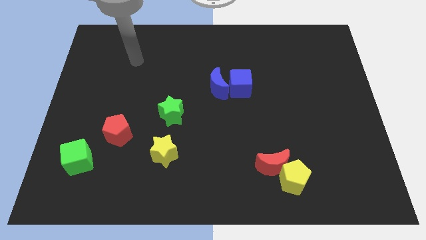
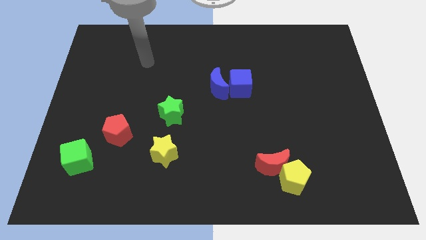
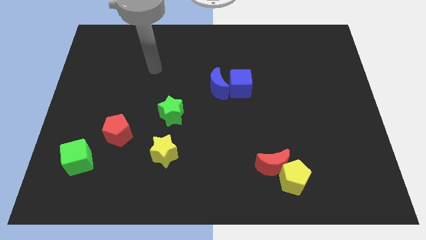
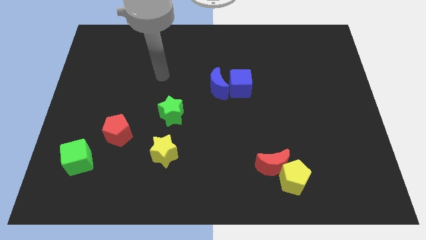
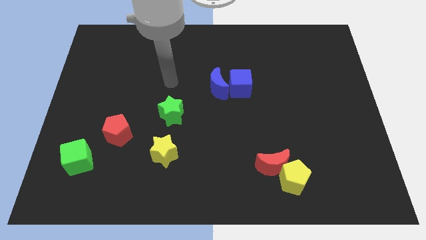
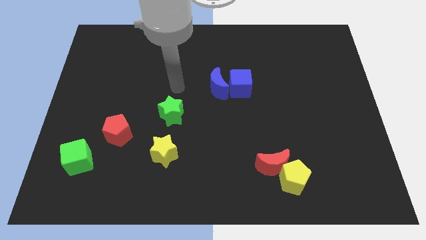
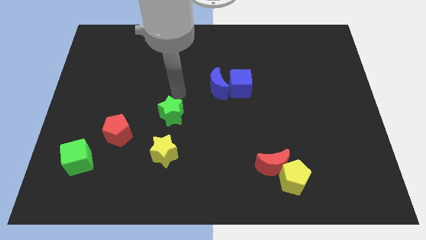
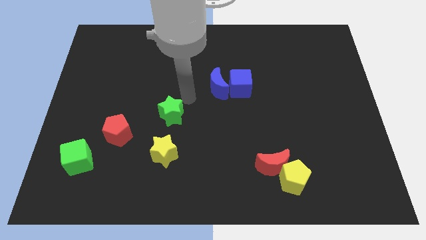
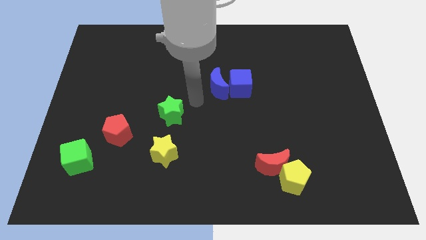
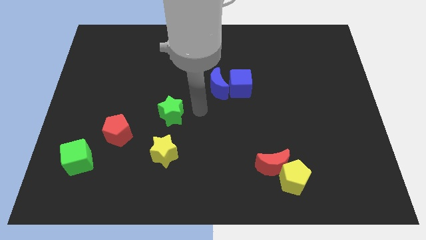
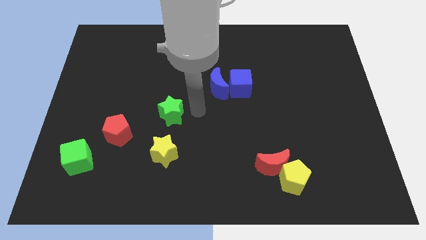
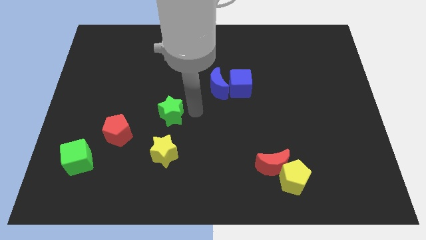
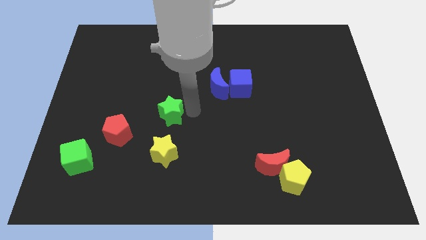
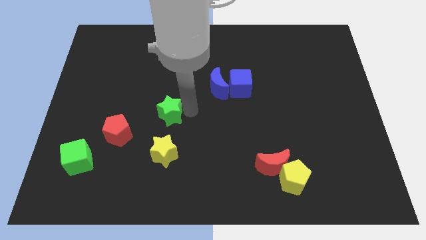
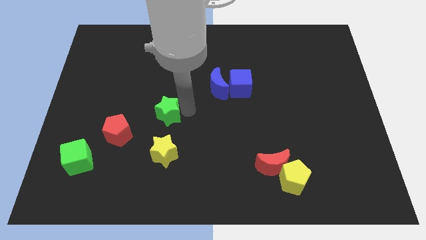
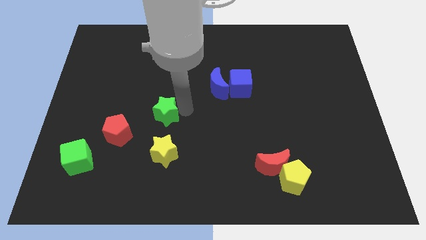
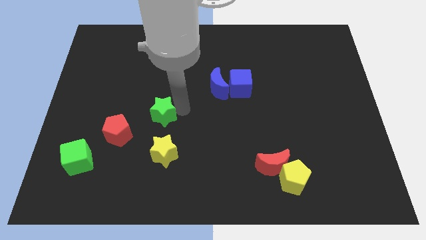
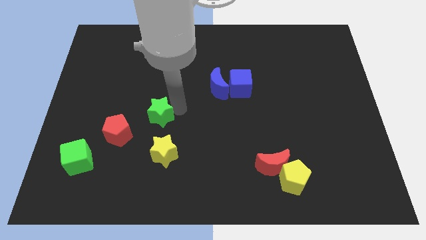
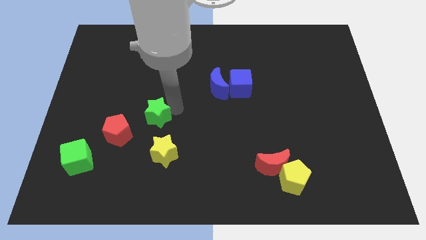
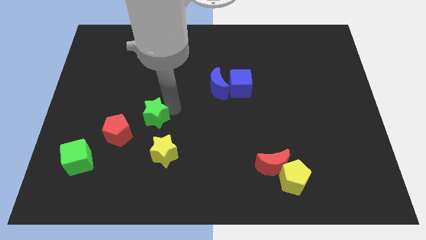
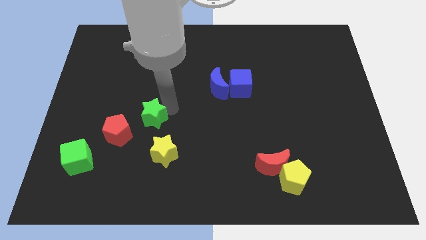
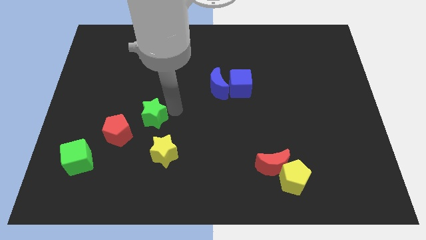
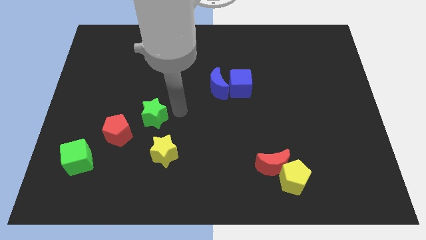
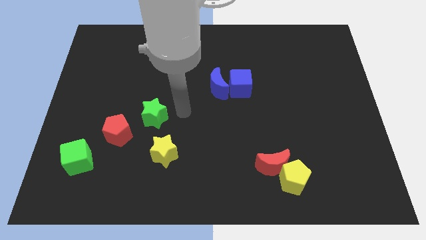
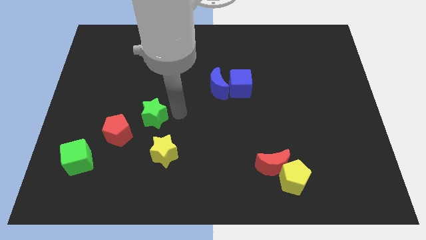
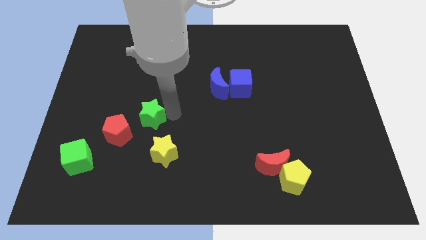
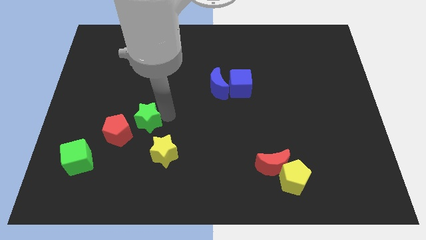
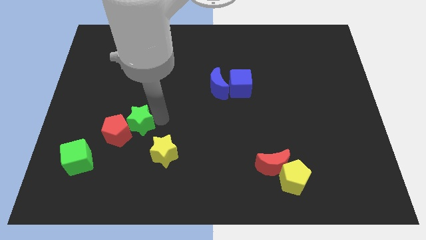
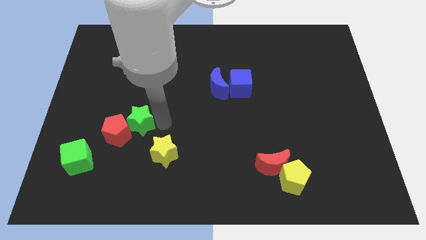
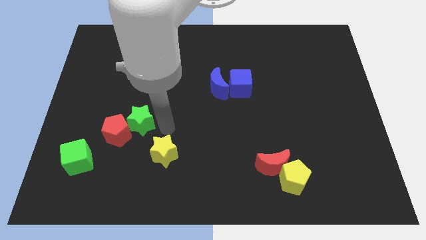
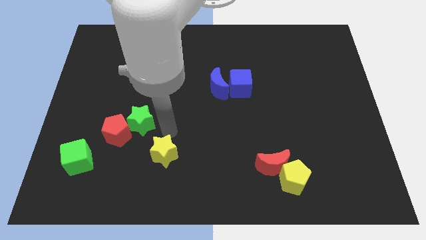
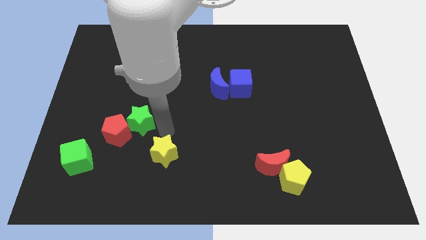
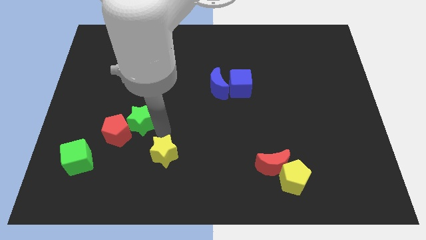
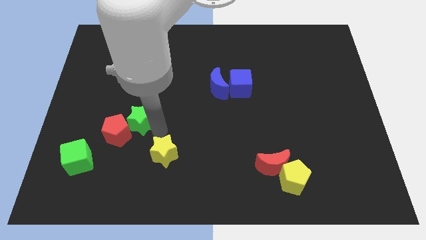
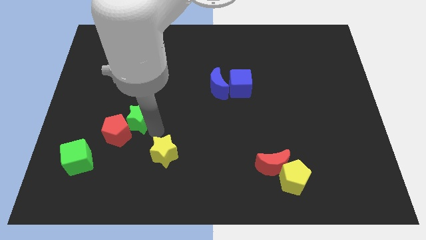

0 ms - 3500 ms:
slide the green star slightly to the left

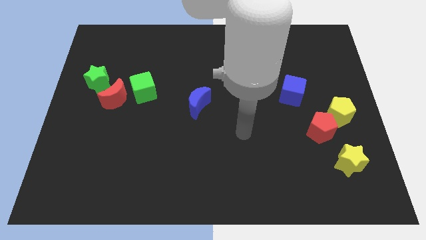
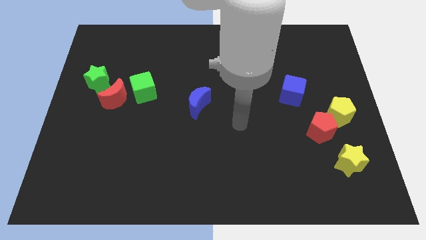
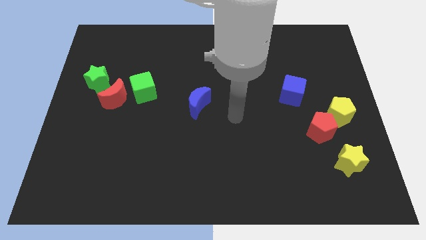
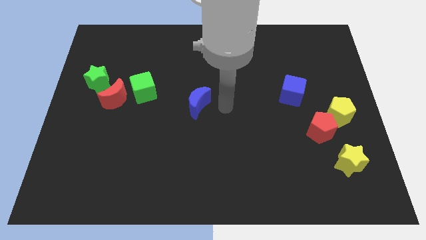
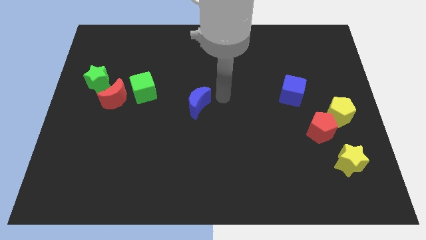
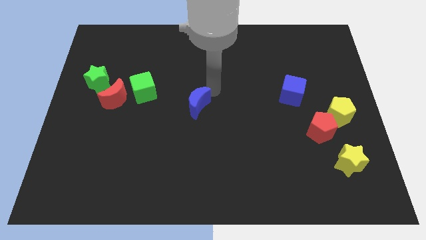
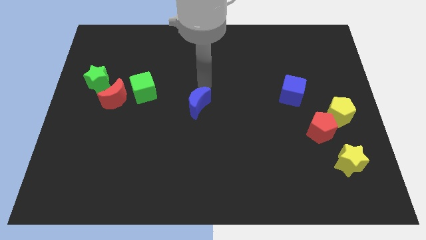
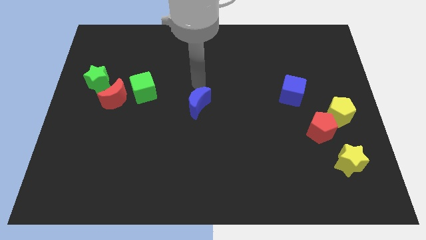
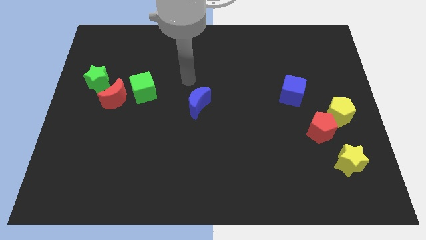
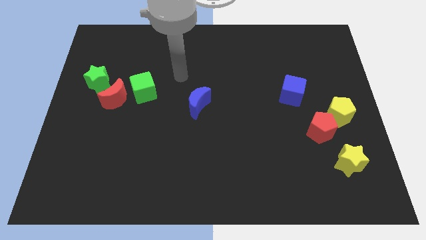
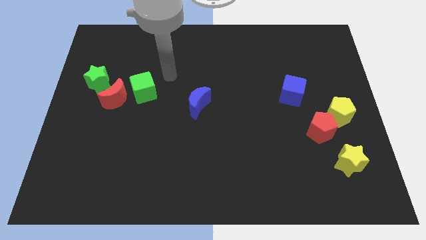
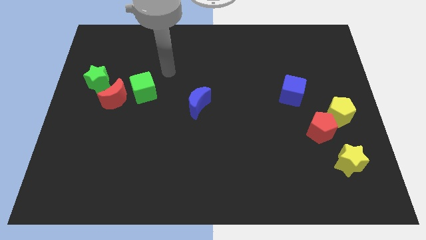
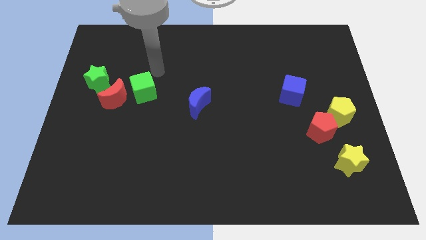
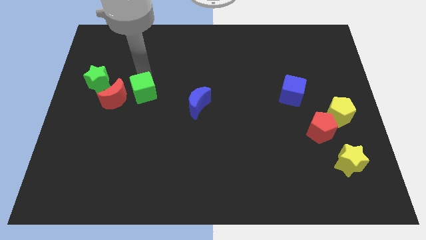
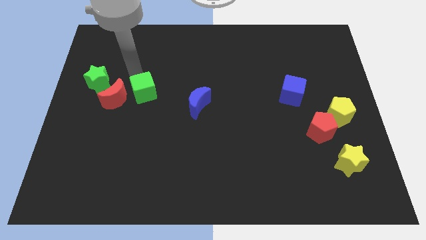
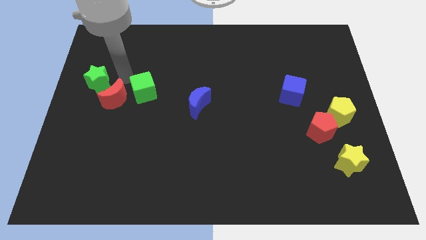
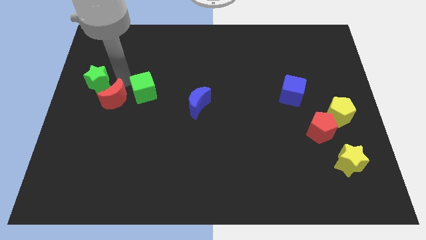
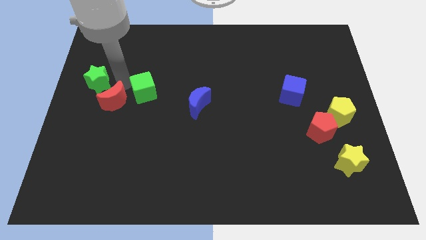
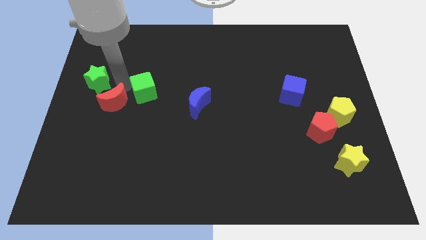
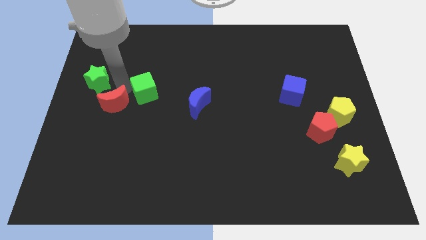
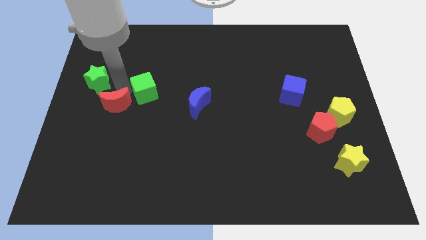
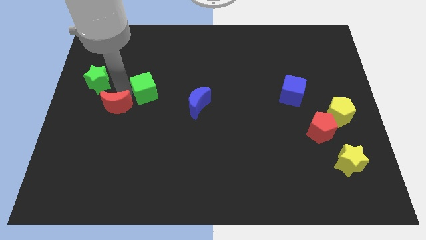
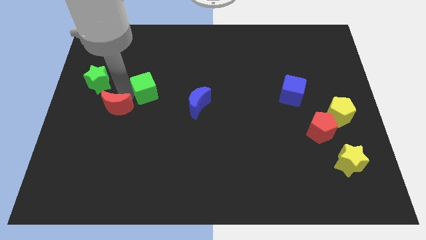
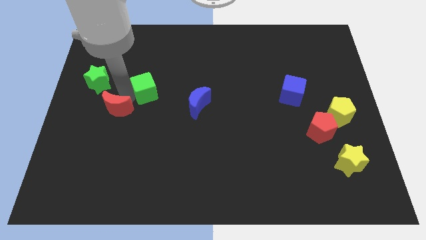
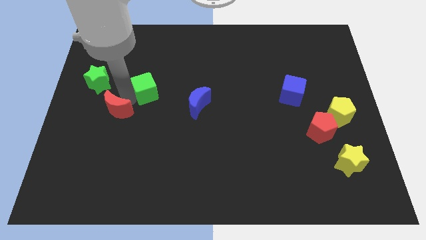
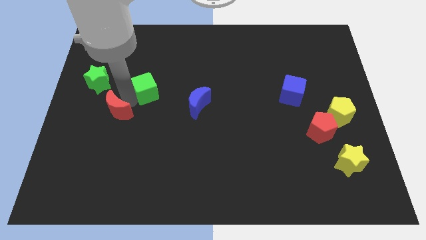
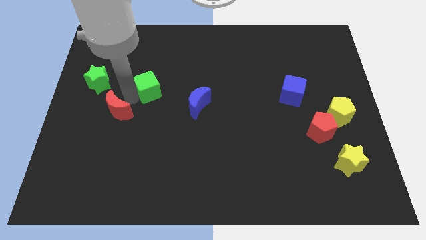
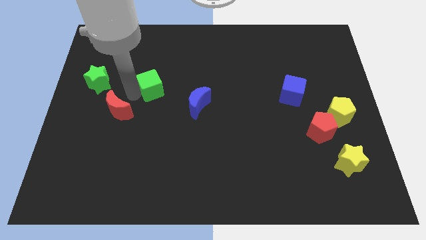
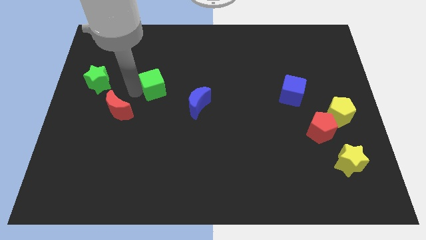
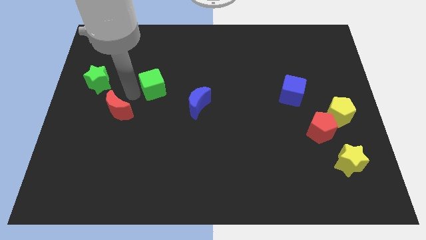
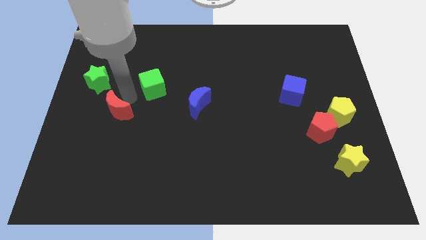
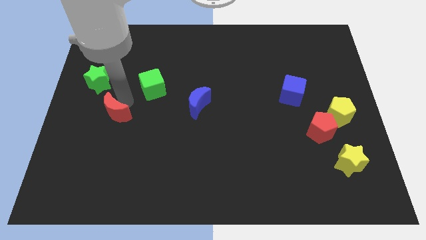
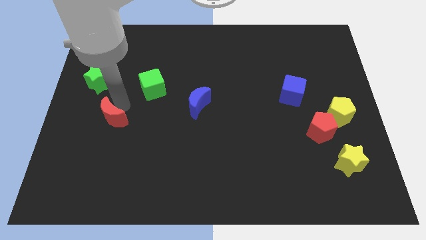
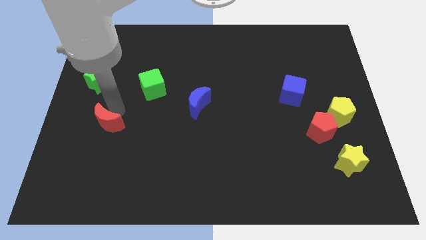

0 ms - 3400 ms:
move the red moon somewhat down

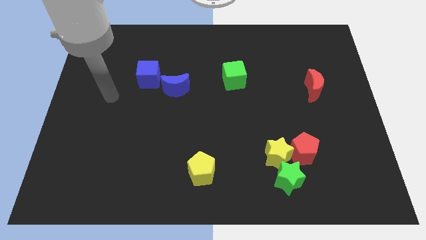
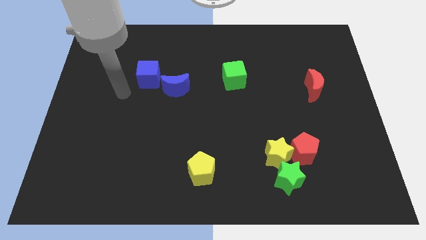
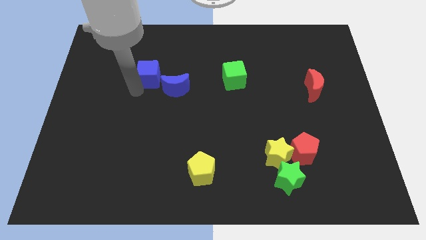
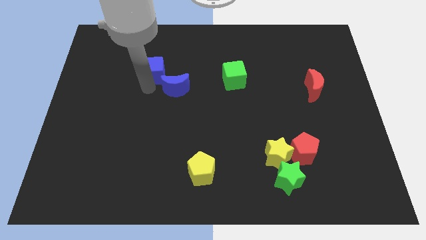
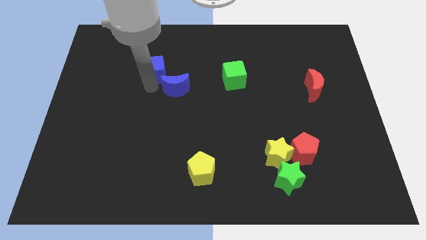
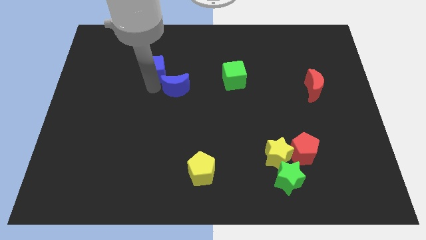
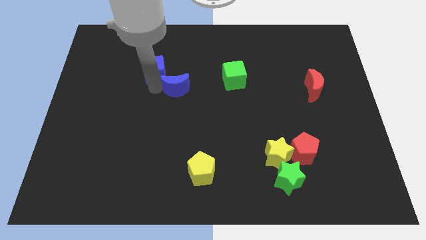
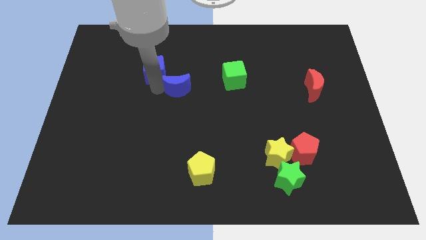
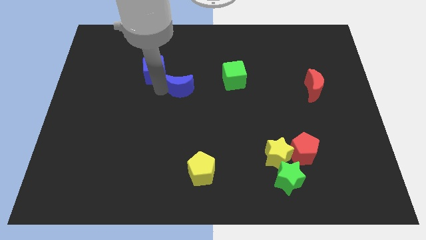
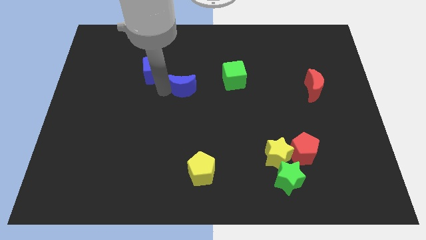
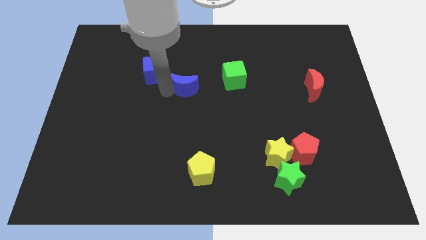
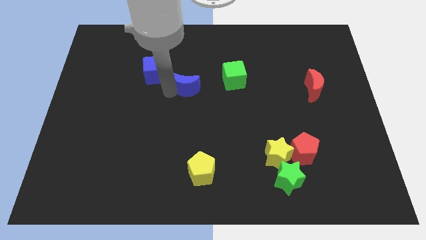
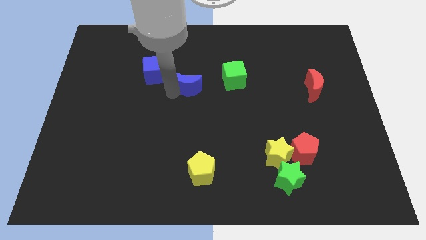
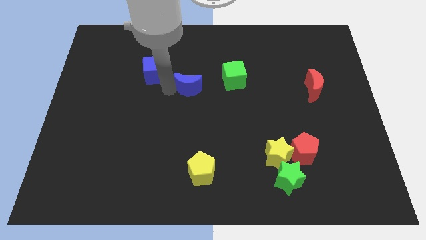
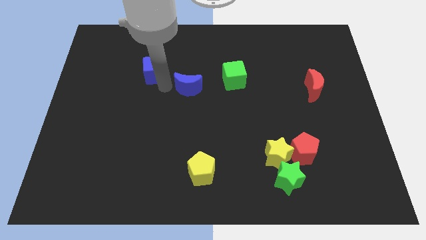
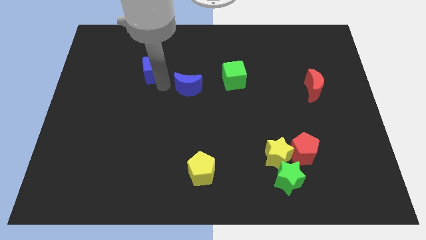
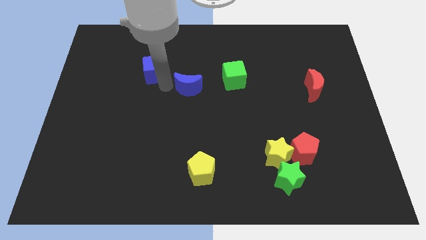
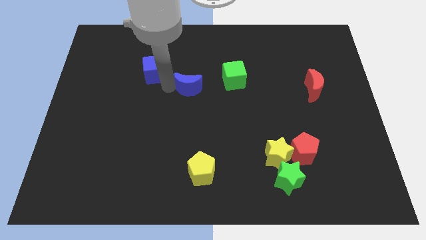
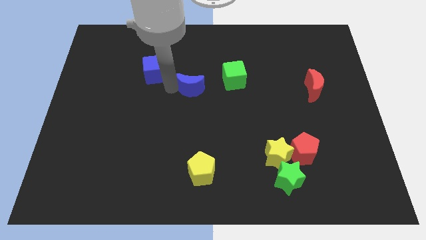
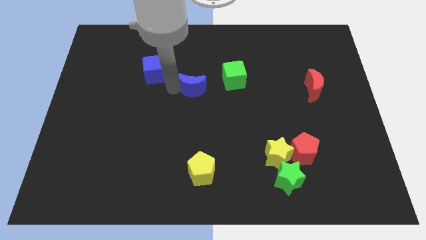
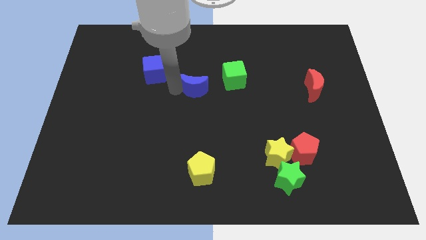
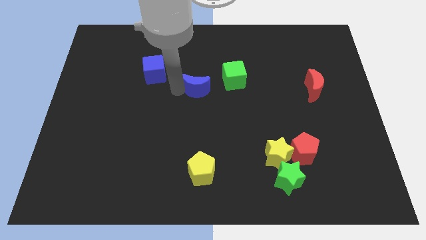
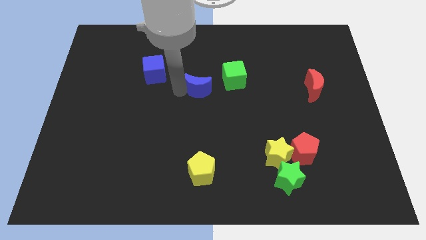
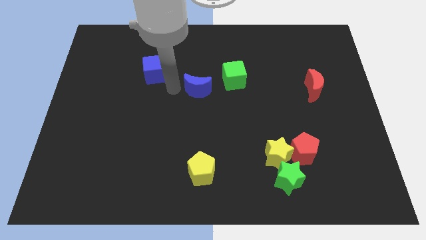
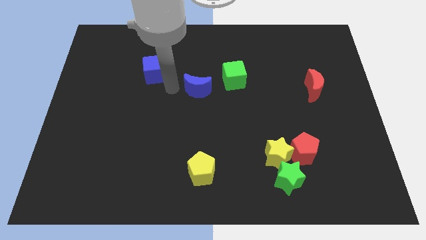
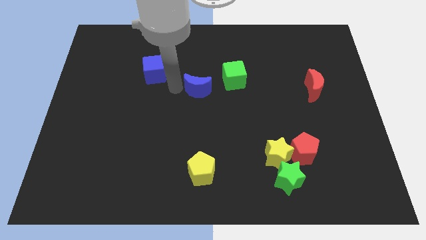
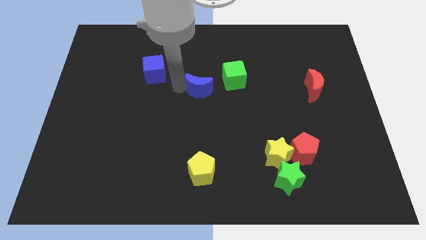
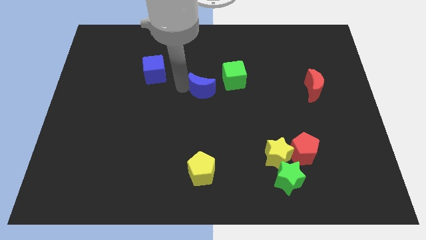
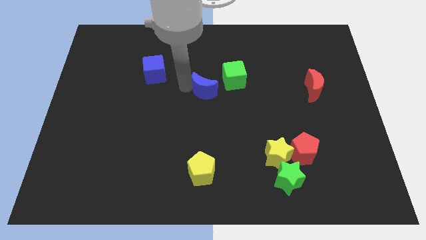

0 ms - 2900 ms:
slightly move the blue moon right
